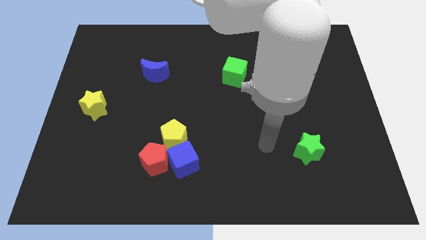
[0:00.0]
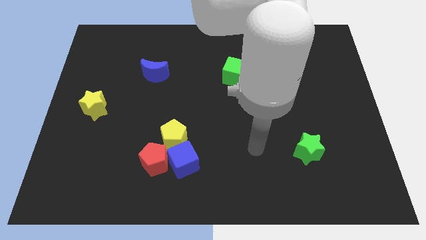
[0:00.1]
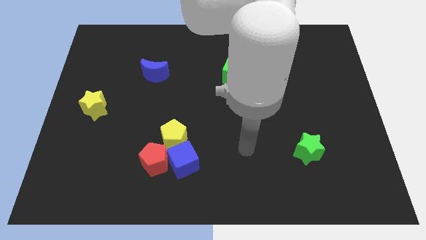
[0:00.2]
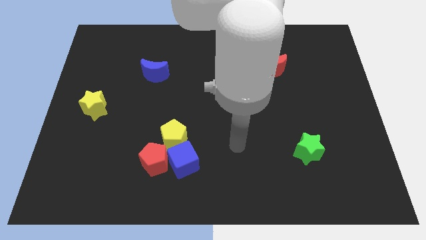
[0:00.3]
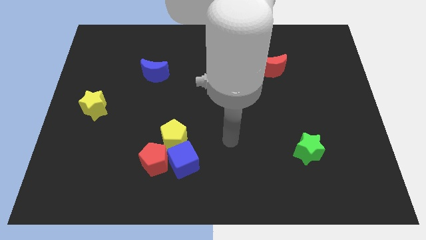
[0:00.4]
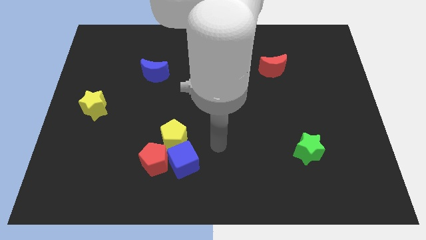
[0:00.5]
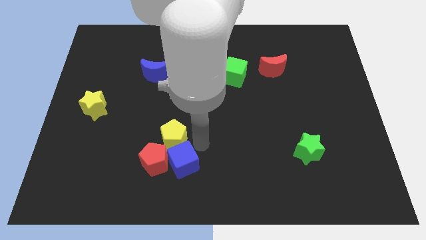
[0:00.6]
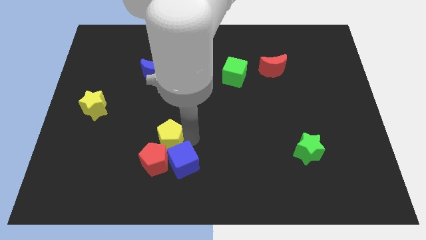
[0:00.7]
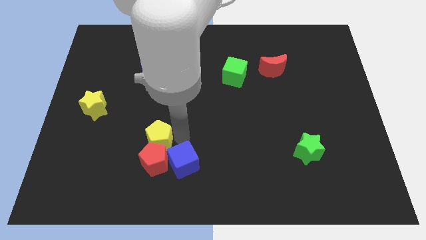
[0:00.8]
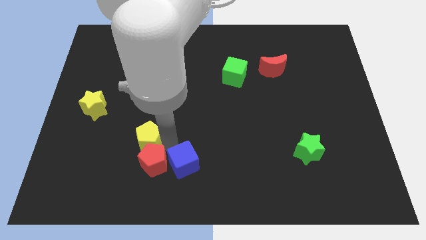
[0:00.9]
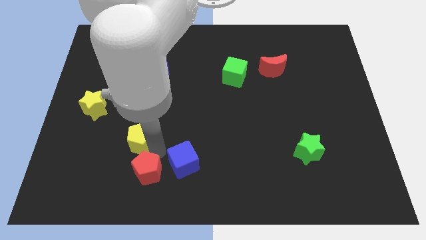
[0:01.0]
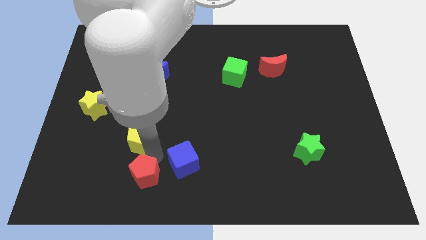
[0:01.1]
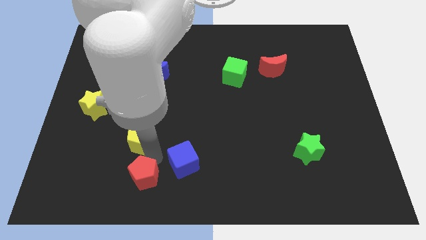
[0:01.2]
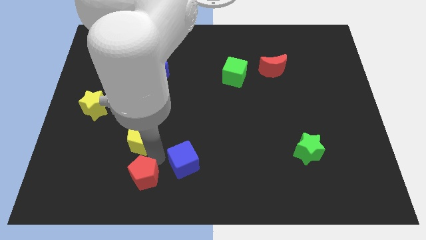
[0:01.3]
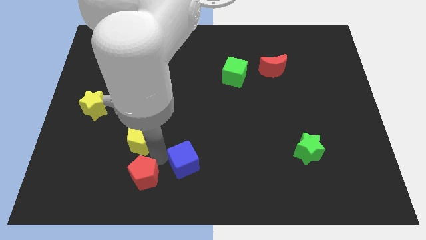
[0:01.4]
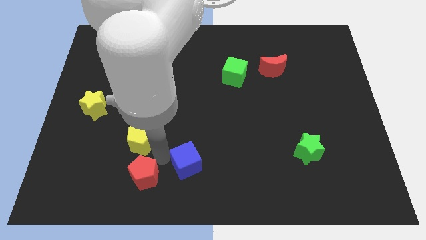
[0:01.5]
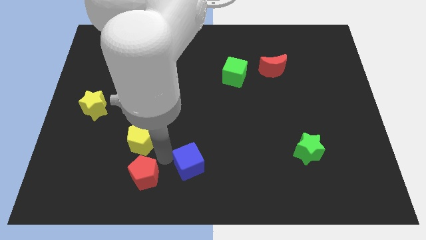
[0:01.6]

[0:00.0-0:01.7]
separate the blue cube from the red pentagon and yellow pentagon

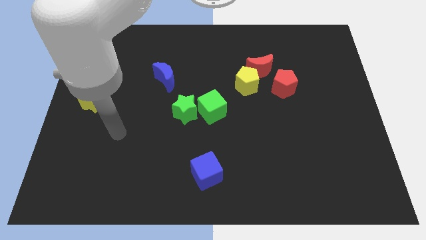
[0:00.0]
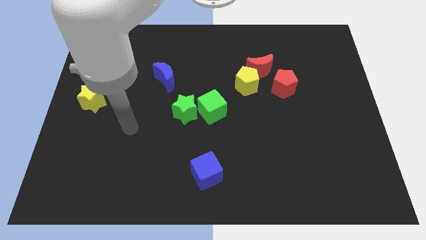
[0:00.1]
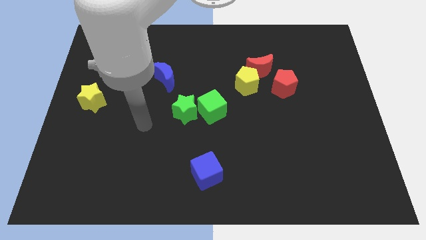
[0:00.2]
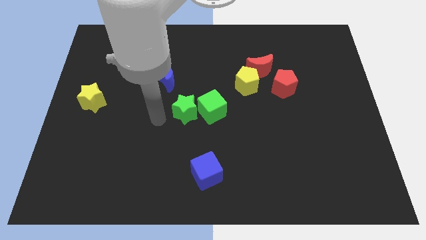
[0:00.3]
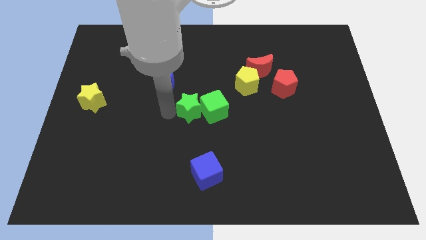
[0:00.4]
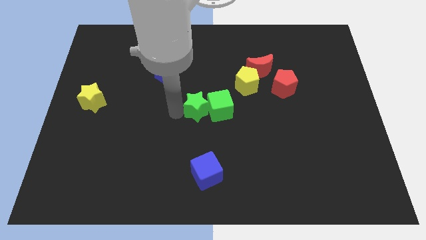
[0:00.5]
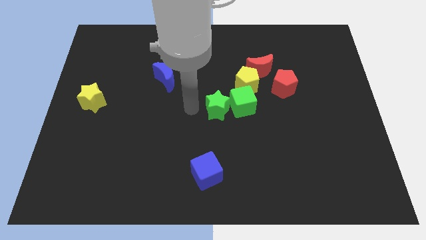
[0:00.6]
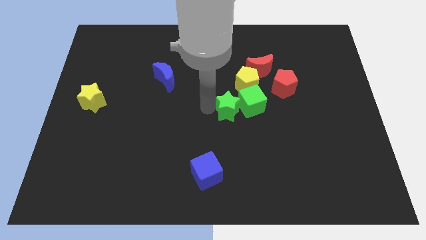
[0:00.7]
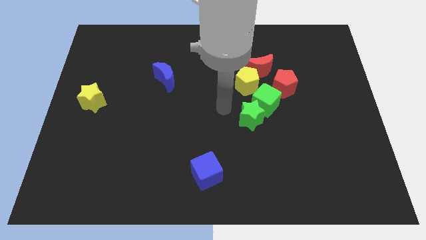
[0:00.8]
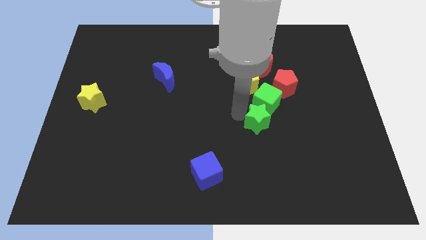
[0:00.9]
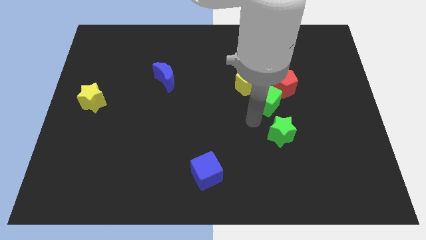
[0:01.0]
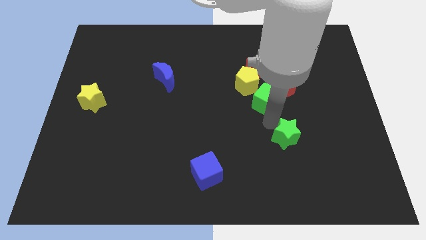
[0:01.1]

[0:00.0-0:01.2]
move the green cube away from the green star

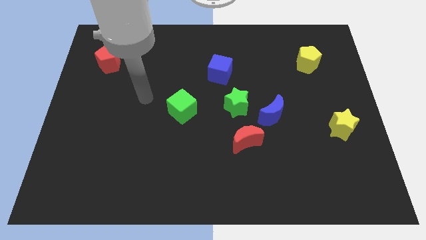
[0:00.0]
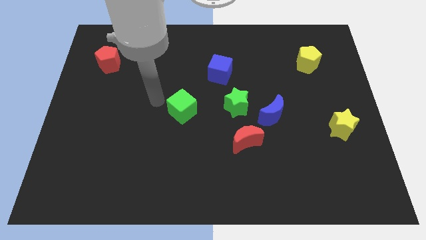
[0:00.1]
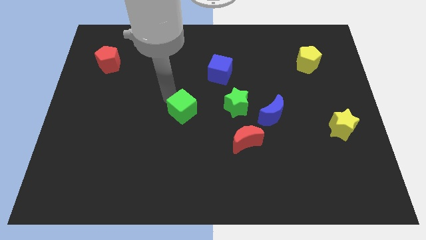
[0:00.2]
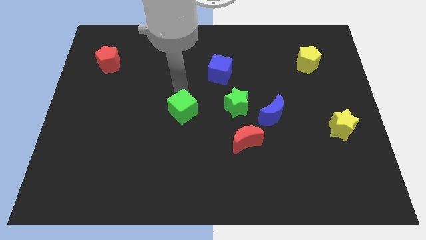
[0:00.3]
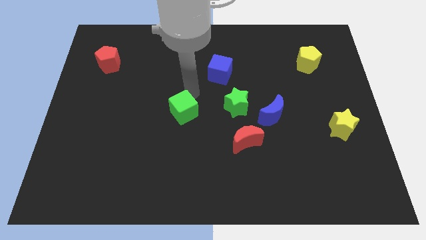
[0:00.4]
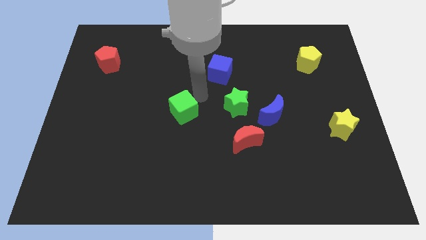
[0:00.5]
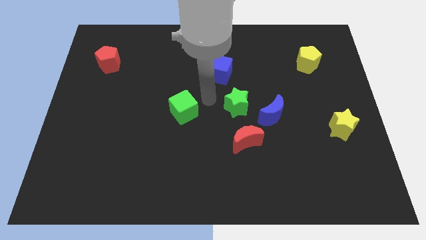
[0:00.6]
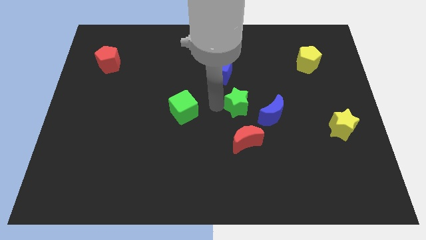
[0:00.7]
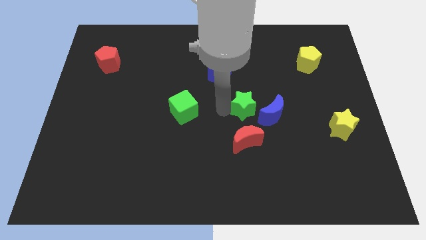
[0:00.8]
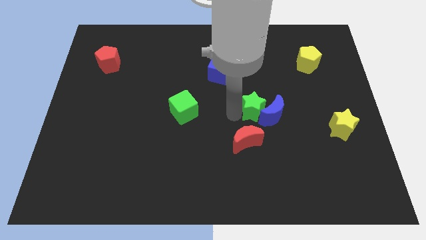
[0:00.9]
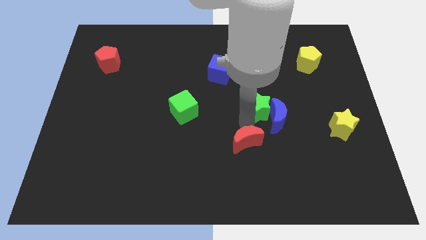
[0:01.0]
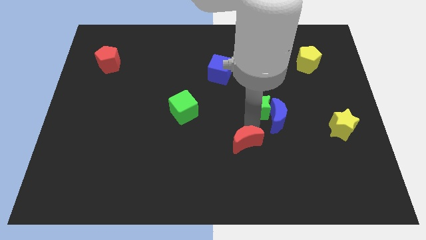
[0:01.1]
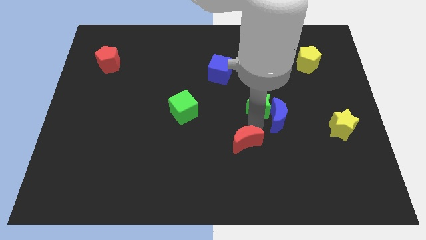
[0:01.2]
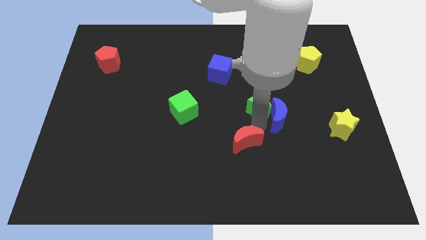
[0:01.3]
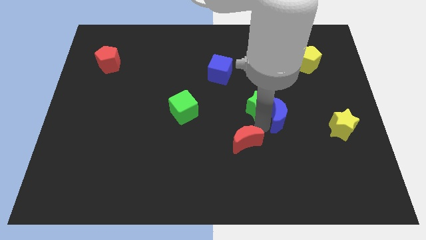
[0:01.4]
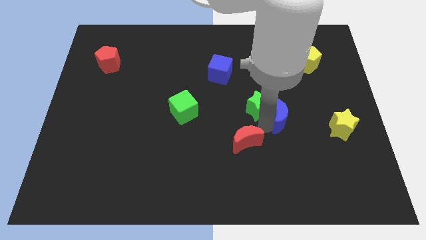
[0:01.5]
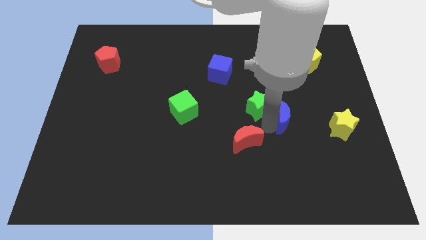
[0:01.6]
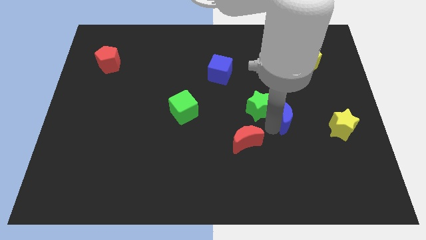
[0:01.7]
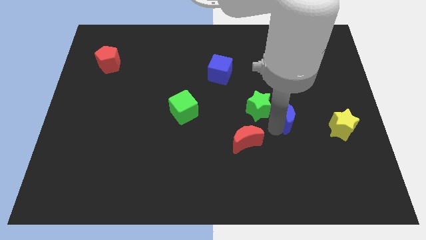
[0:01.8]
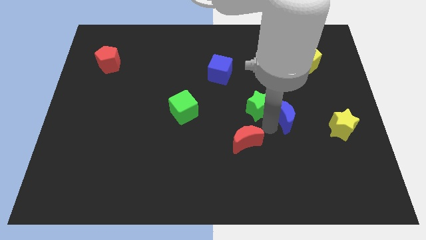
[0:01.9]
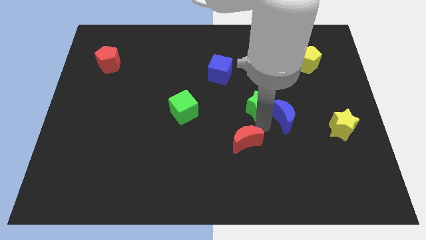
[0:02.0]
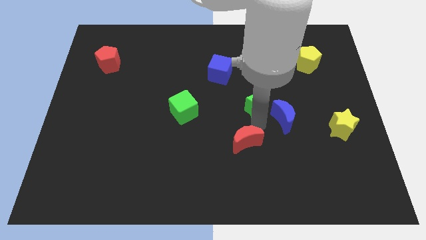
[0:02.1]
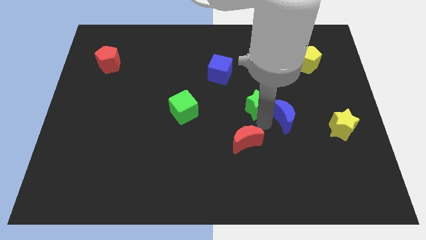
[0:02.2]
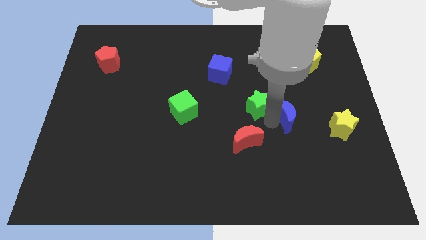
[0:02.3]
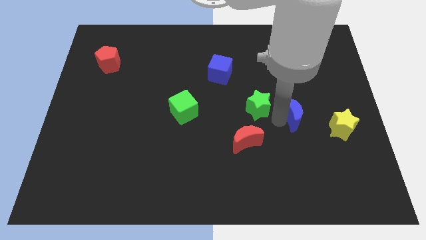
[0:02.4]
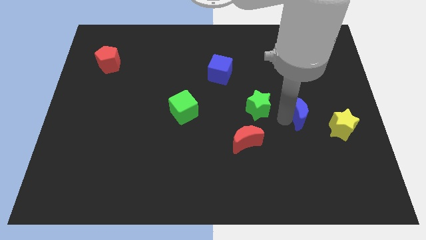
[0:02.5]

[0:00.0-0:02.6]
pull the blue moon apart from the green star and red moon

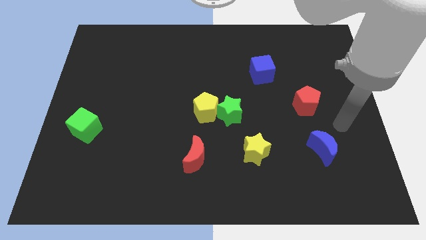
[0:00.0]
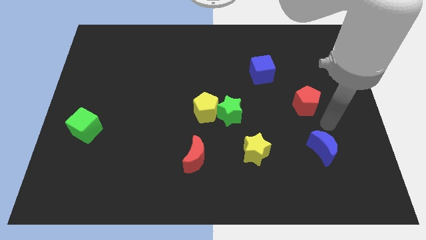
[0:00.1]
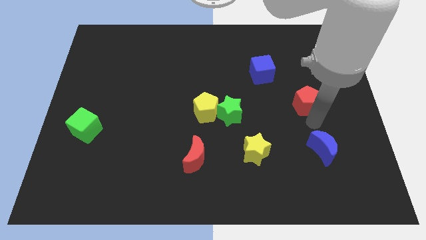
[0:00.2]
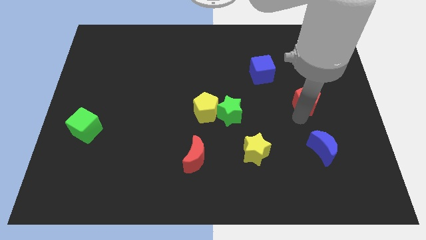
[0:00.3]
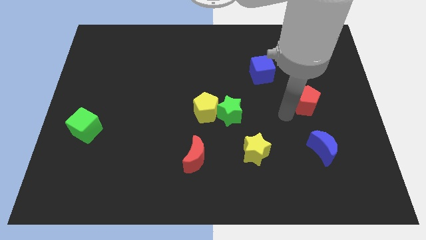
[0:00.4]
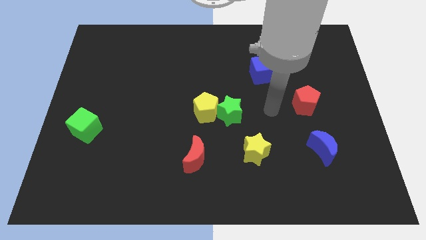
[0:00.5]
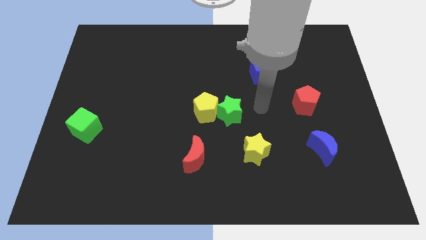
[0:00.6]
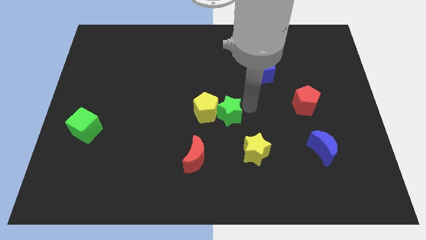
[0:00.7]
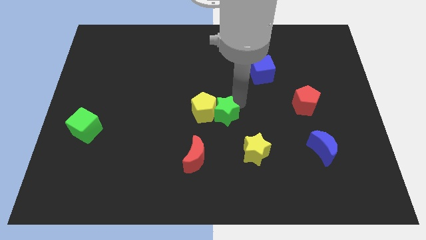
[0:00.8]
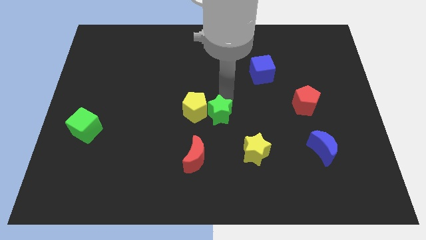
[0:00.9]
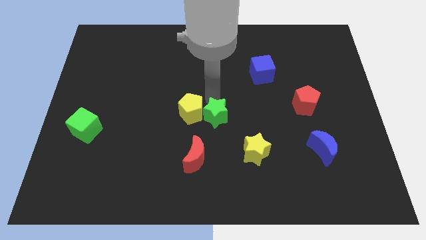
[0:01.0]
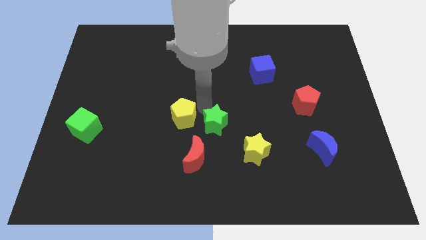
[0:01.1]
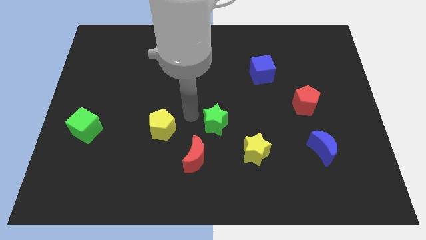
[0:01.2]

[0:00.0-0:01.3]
separate the green star from the yellow pentagon

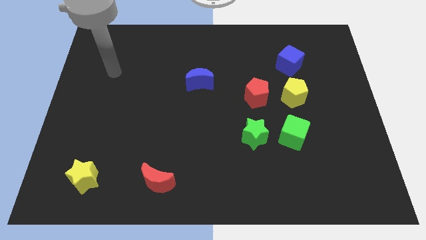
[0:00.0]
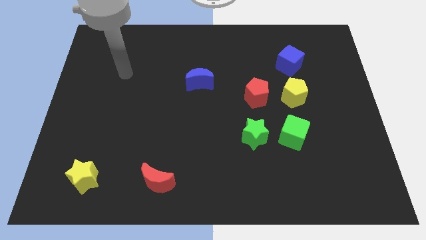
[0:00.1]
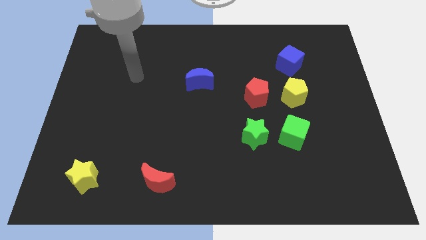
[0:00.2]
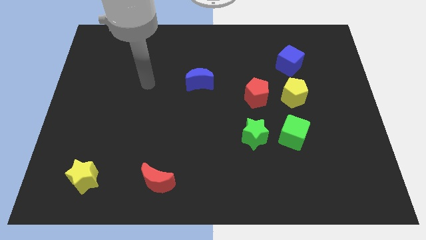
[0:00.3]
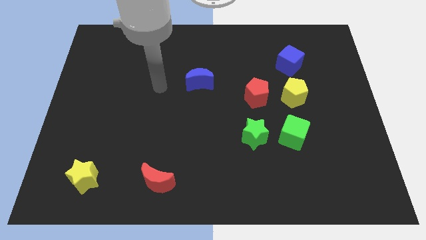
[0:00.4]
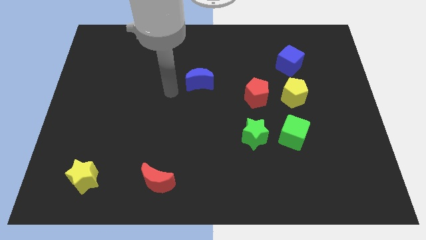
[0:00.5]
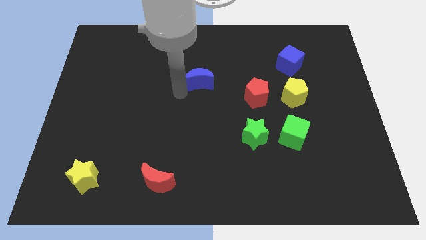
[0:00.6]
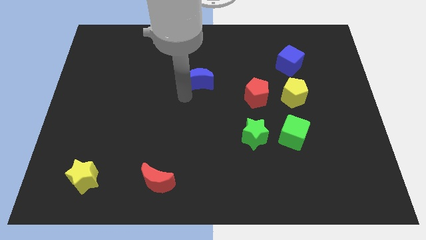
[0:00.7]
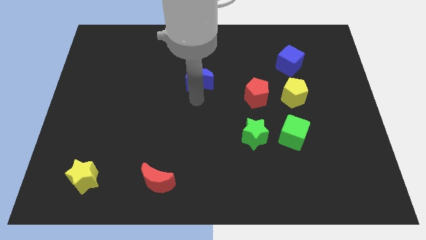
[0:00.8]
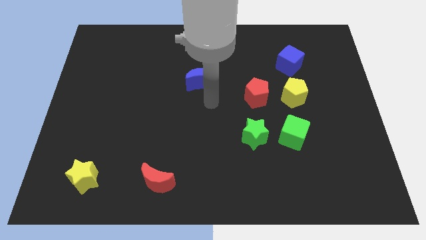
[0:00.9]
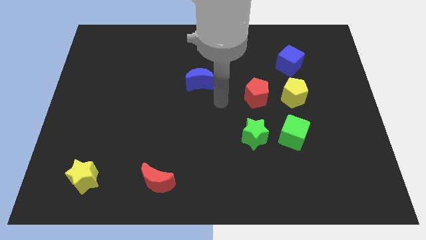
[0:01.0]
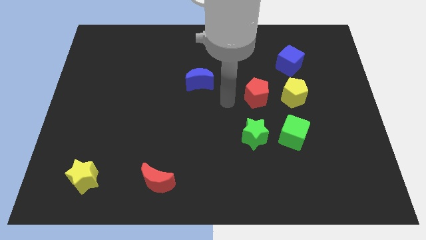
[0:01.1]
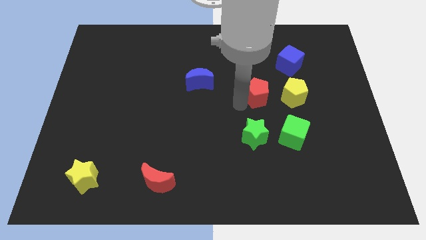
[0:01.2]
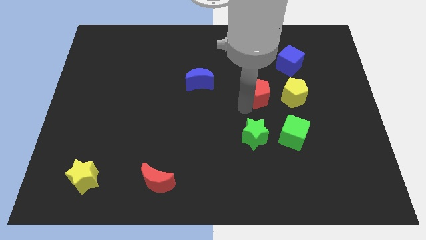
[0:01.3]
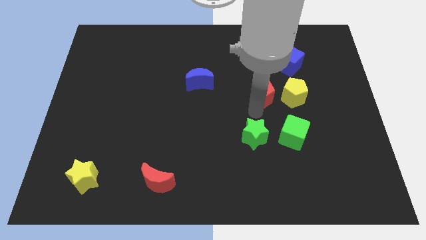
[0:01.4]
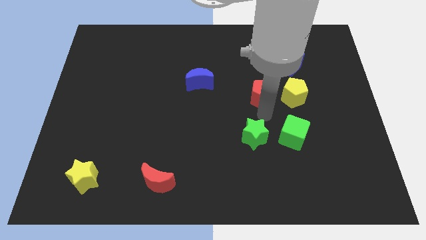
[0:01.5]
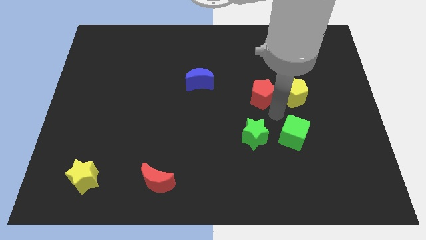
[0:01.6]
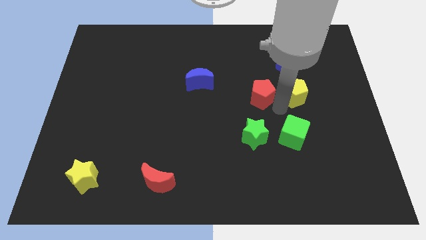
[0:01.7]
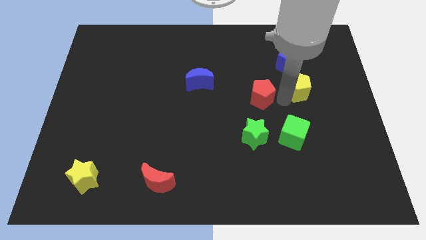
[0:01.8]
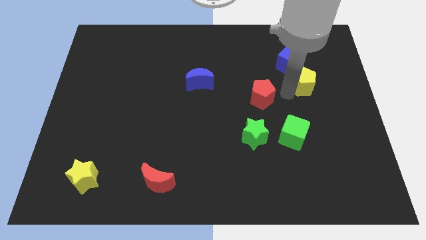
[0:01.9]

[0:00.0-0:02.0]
separate the red pentagon from the yellow pentagon

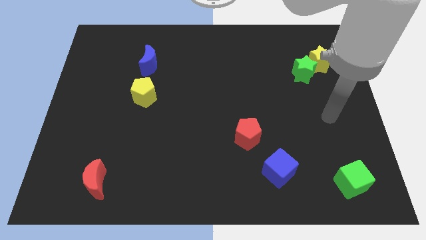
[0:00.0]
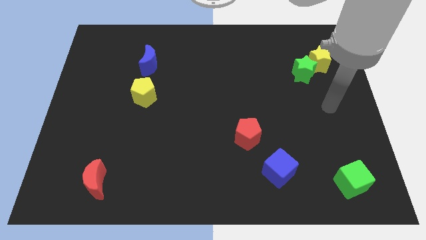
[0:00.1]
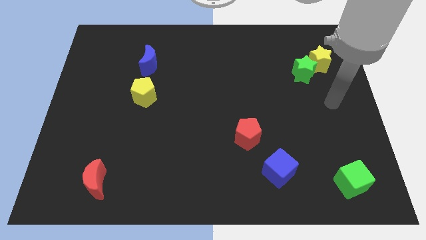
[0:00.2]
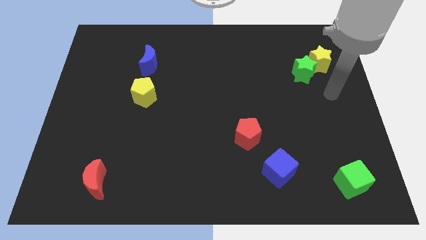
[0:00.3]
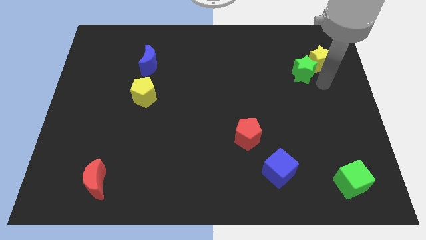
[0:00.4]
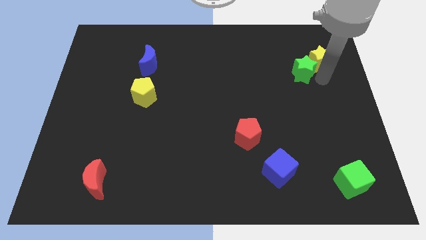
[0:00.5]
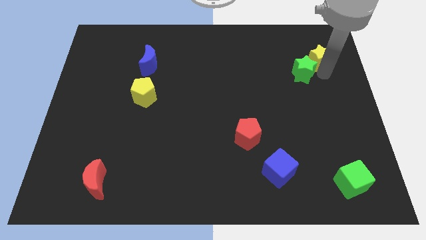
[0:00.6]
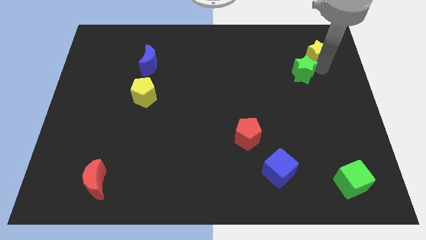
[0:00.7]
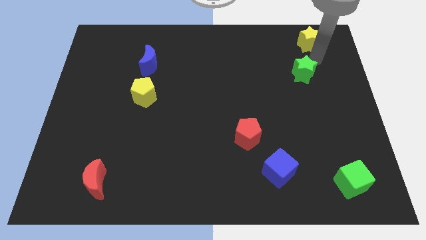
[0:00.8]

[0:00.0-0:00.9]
pull the green star apart from the yellow star
